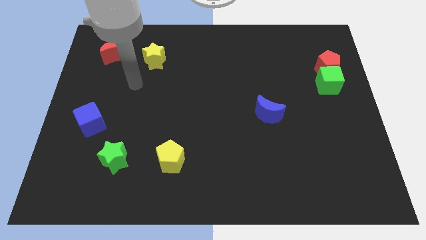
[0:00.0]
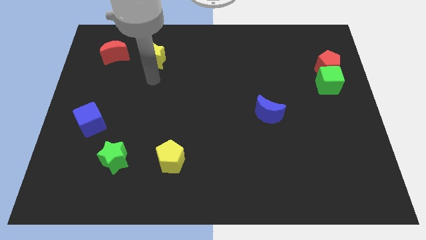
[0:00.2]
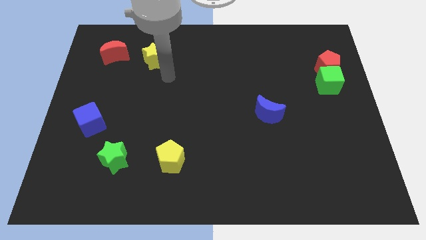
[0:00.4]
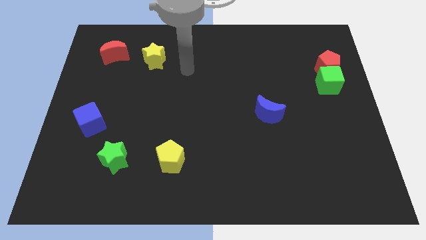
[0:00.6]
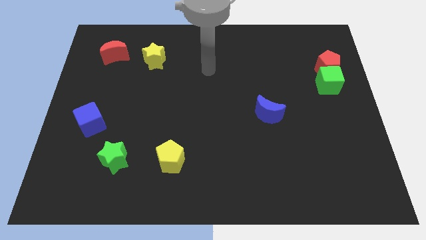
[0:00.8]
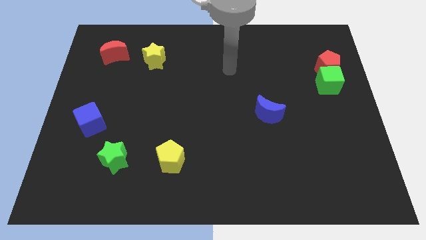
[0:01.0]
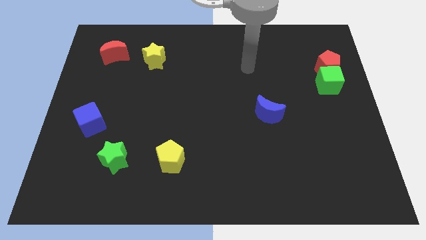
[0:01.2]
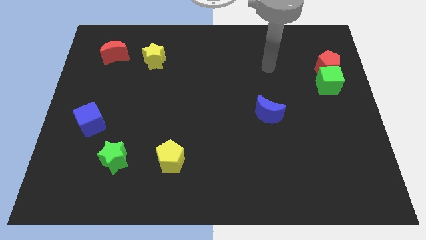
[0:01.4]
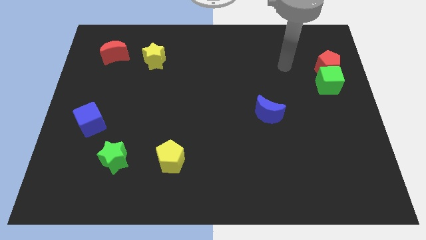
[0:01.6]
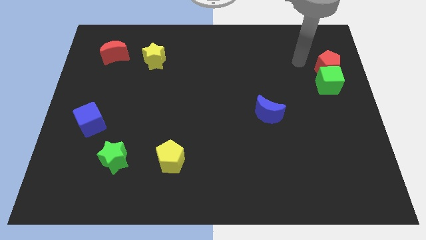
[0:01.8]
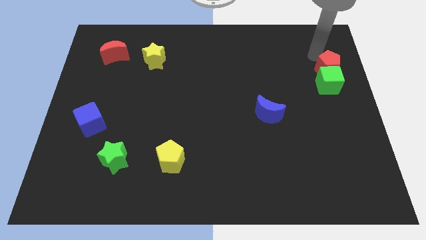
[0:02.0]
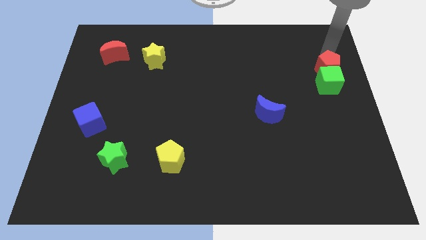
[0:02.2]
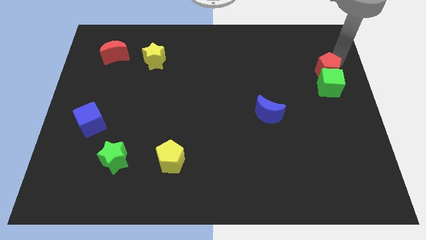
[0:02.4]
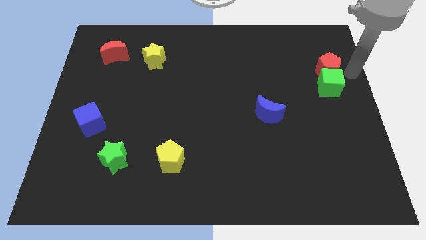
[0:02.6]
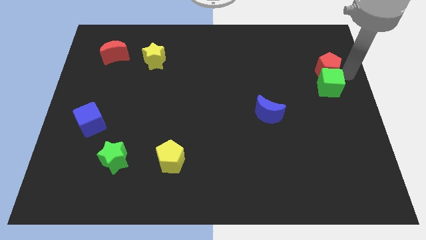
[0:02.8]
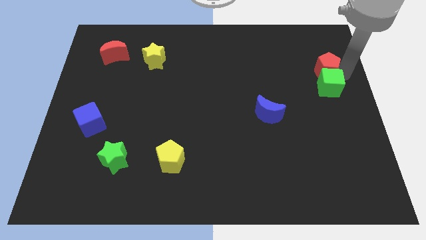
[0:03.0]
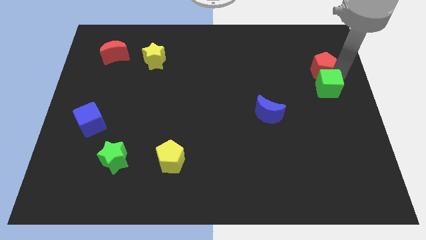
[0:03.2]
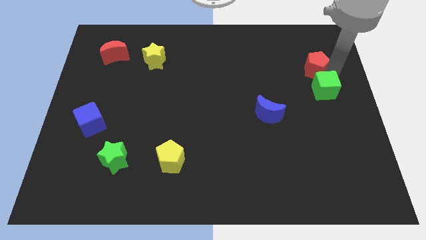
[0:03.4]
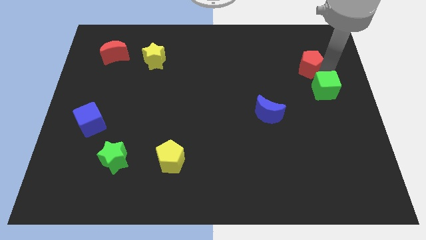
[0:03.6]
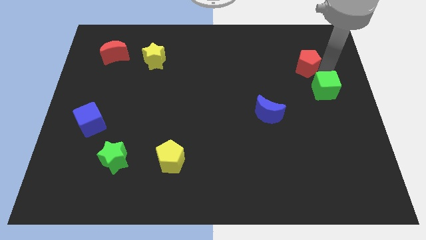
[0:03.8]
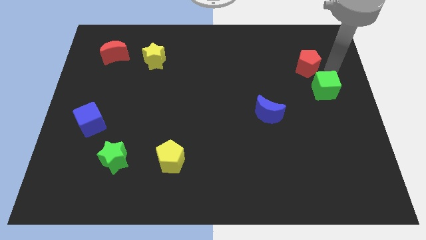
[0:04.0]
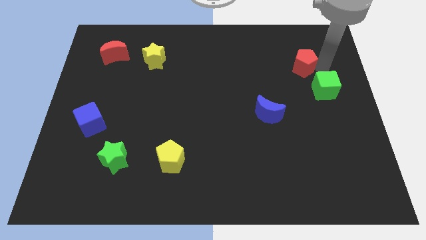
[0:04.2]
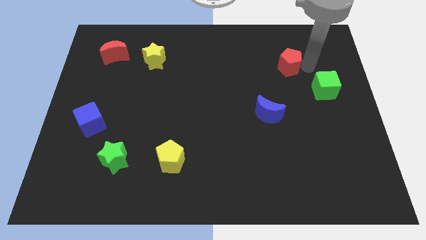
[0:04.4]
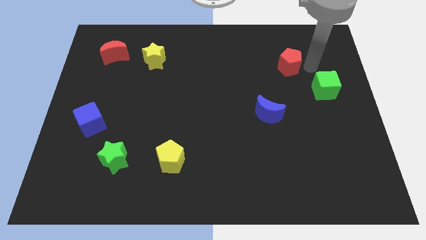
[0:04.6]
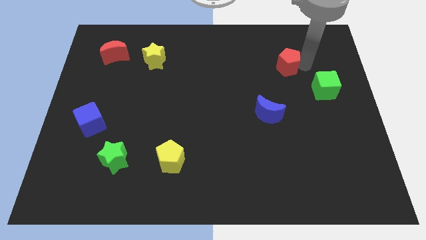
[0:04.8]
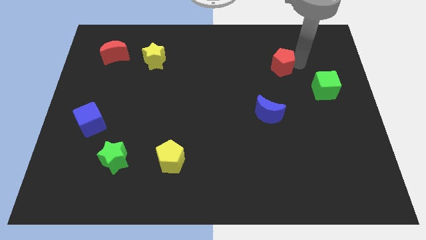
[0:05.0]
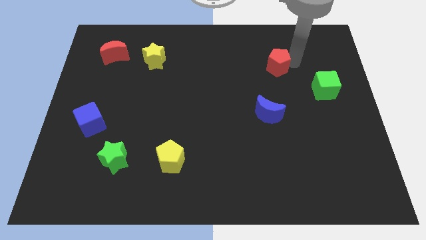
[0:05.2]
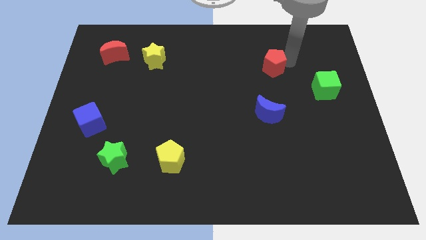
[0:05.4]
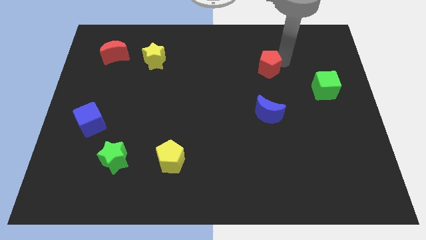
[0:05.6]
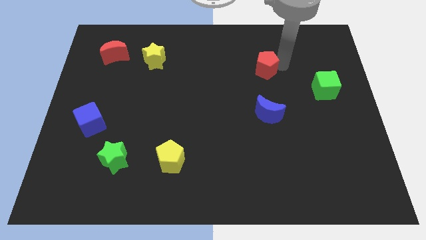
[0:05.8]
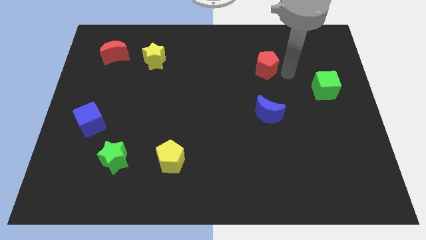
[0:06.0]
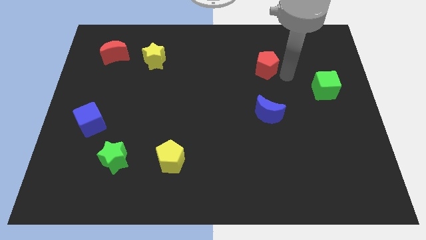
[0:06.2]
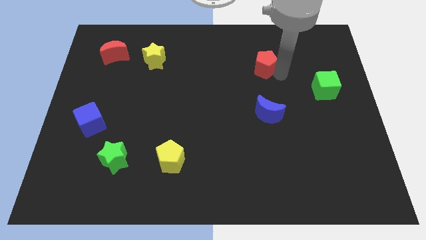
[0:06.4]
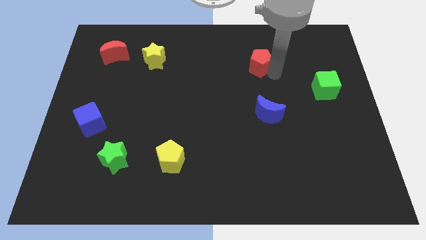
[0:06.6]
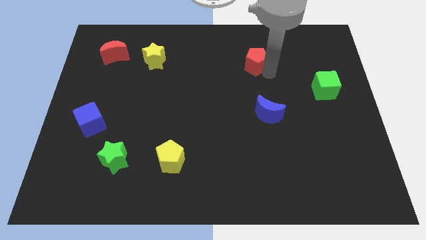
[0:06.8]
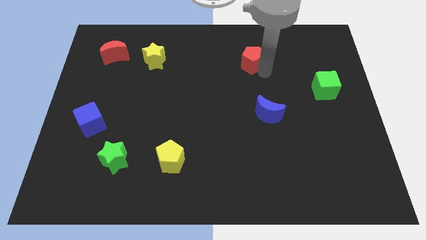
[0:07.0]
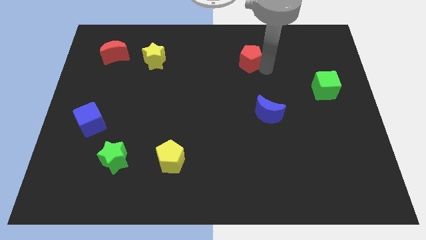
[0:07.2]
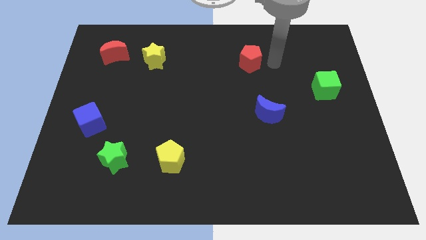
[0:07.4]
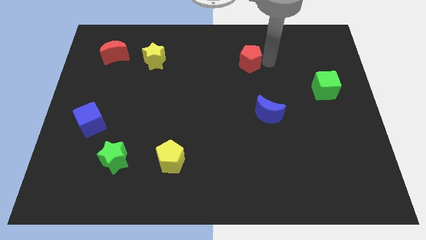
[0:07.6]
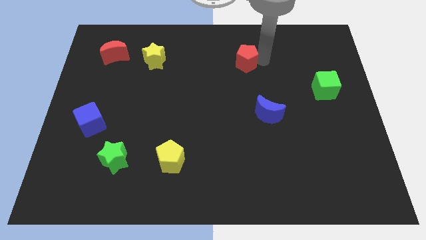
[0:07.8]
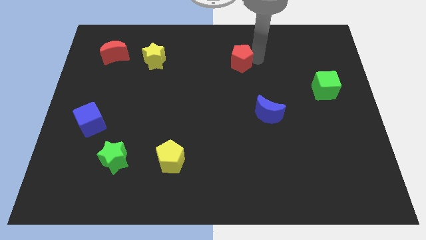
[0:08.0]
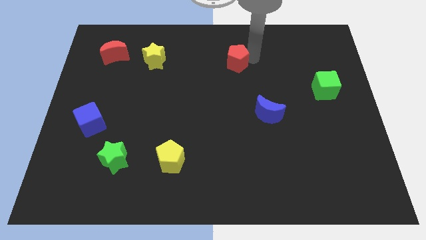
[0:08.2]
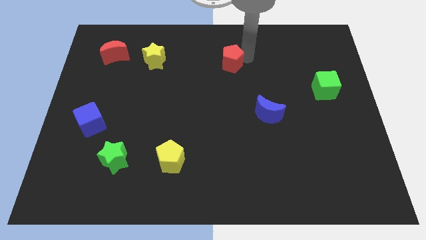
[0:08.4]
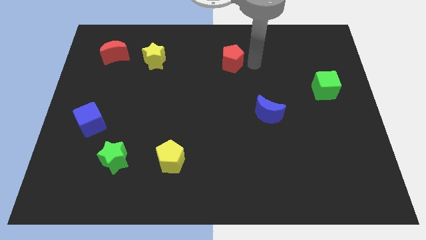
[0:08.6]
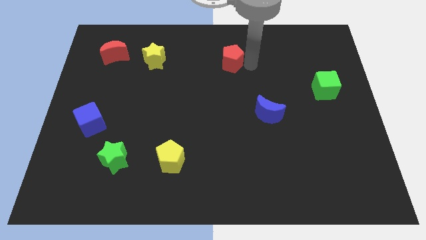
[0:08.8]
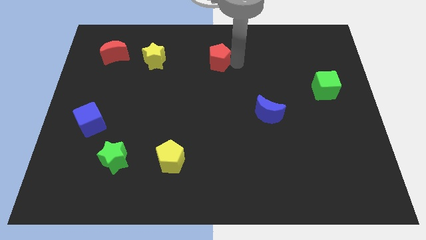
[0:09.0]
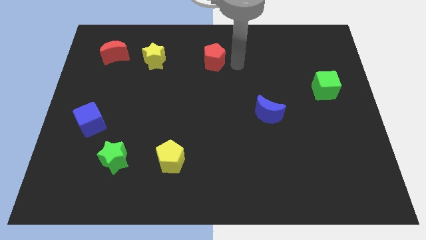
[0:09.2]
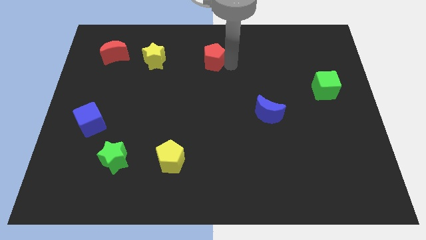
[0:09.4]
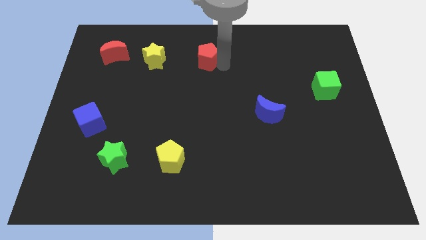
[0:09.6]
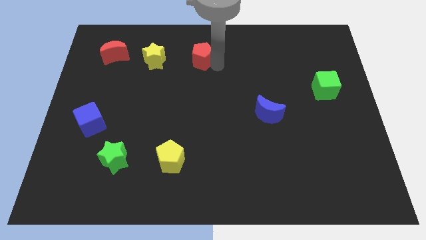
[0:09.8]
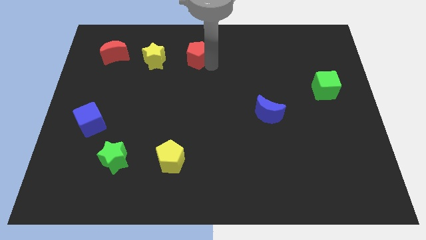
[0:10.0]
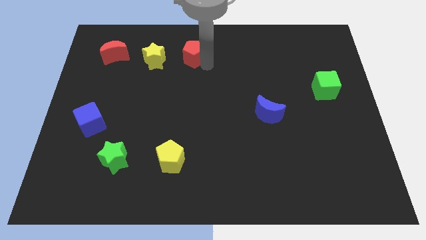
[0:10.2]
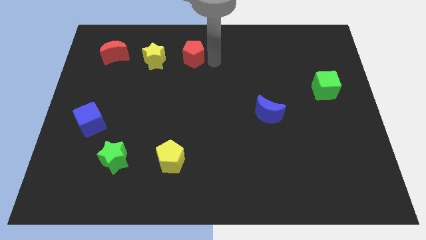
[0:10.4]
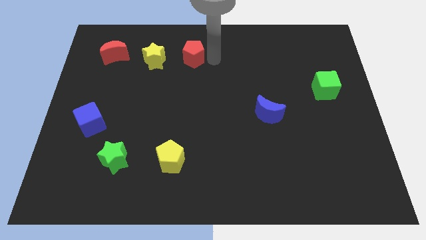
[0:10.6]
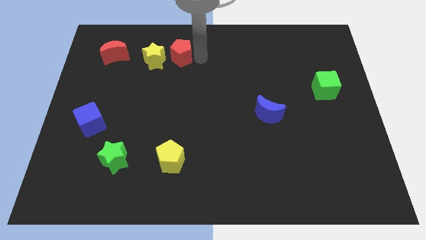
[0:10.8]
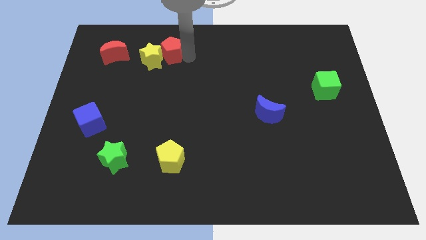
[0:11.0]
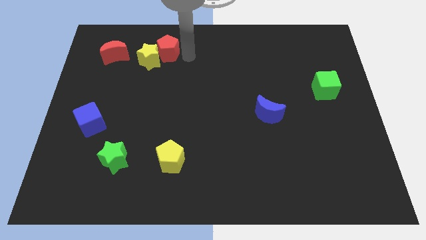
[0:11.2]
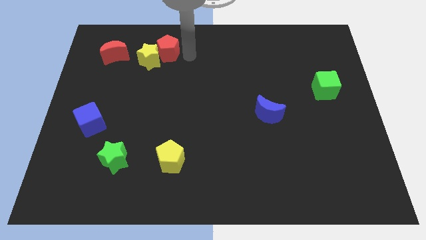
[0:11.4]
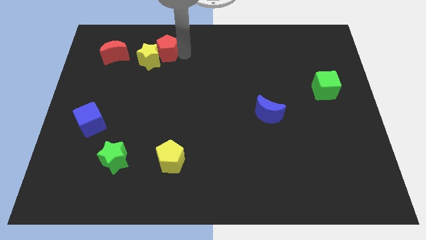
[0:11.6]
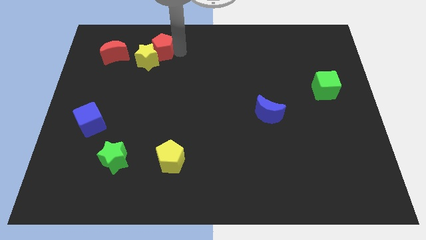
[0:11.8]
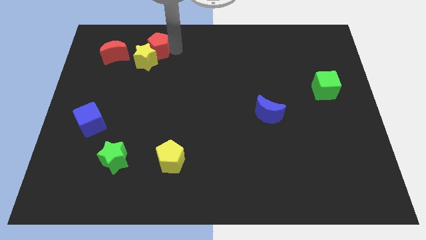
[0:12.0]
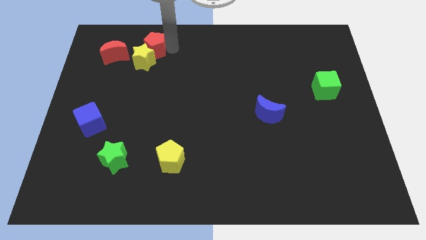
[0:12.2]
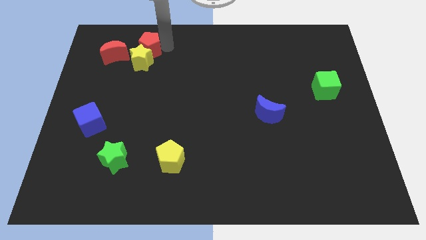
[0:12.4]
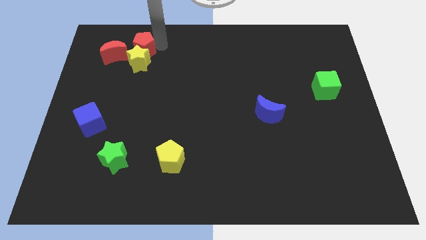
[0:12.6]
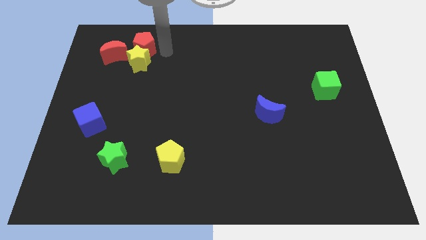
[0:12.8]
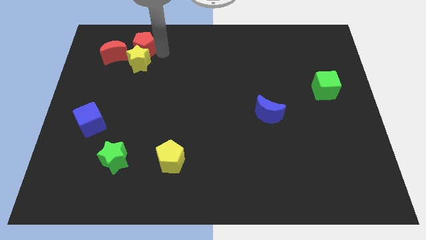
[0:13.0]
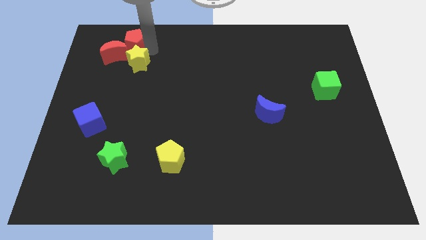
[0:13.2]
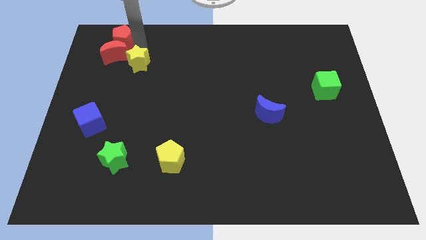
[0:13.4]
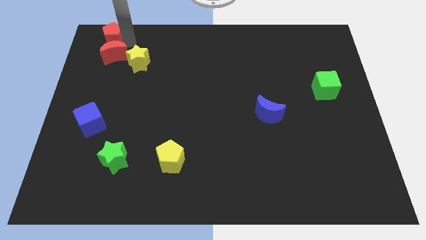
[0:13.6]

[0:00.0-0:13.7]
slide the red pentagon to the upper left corner
